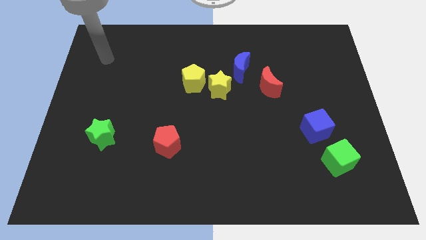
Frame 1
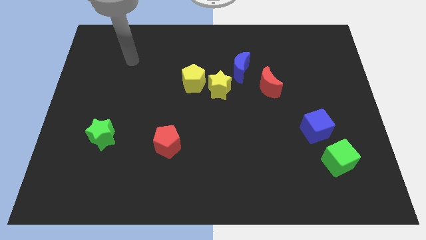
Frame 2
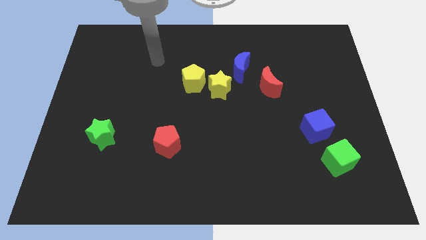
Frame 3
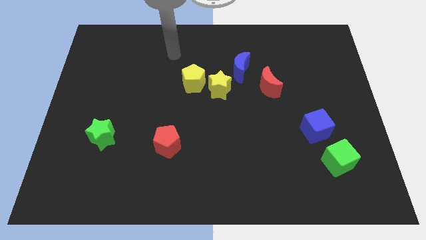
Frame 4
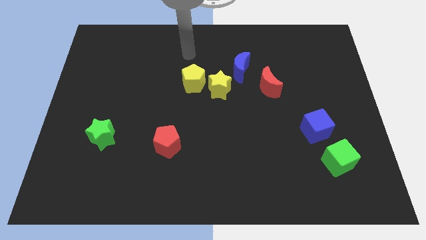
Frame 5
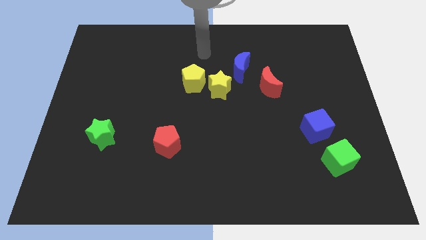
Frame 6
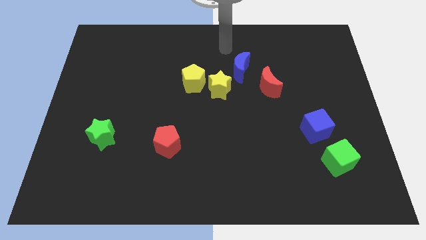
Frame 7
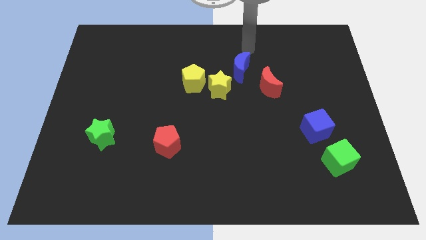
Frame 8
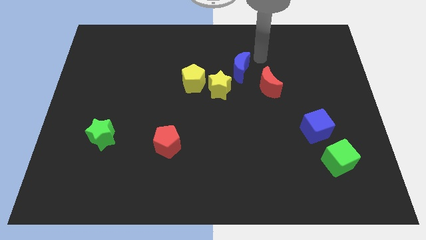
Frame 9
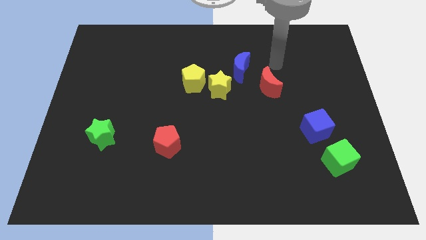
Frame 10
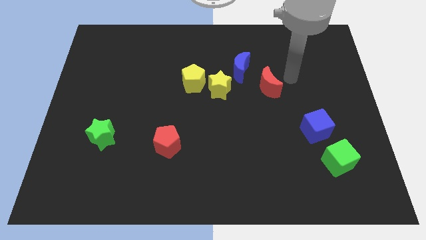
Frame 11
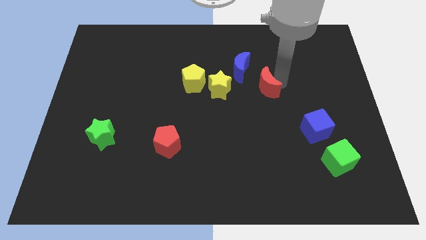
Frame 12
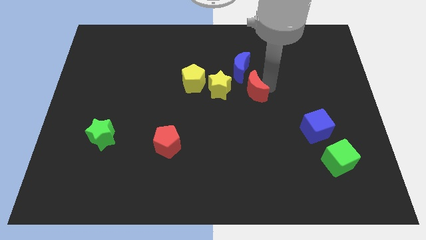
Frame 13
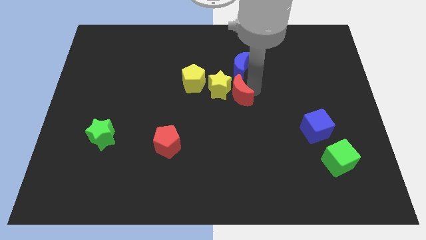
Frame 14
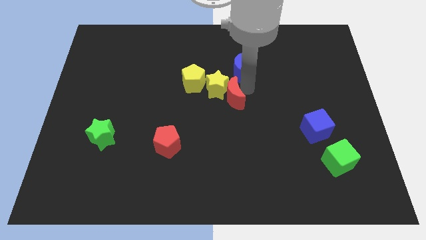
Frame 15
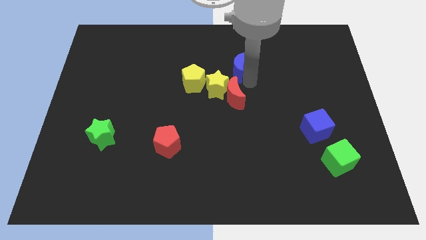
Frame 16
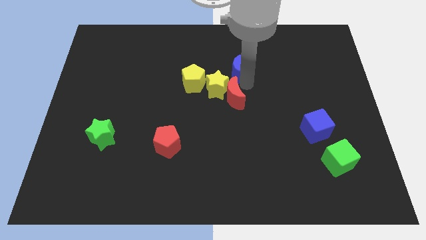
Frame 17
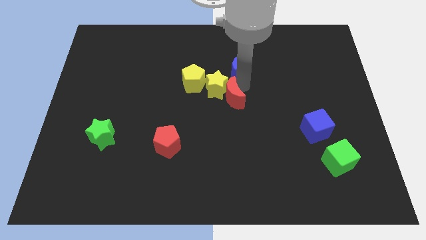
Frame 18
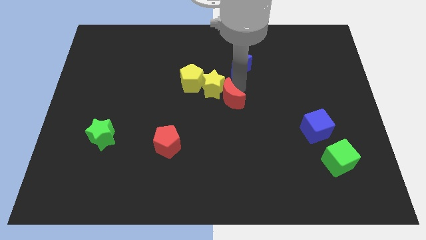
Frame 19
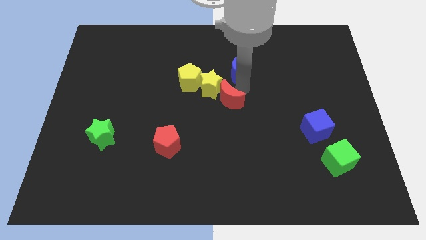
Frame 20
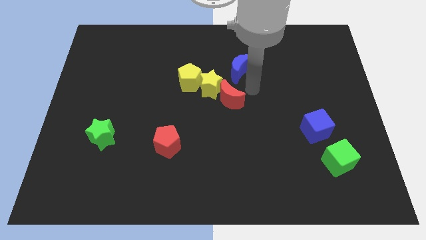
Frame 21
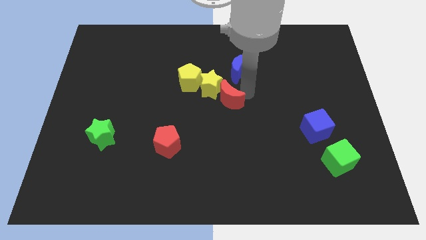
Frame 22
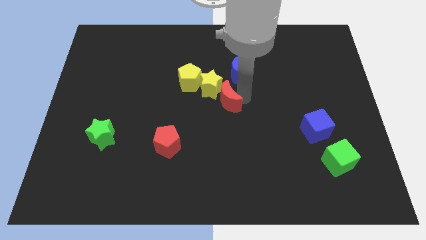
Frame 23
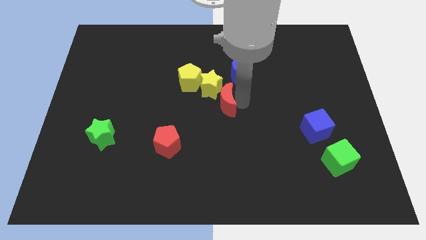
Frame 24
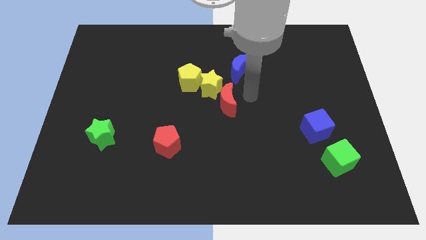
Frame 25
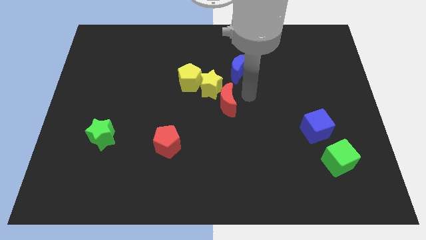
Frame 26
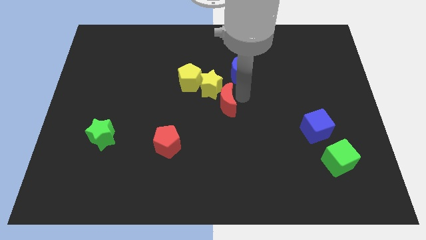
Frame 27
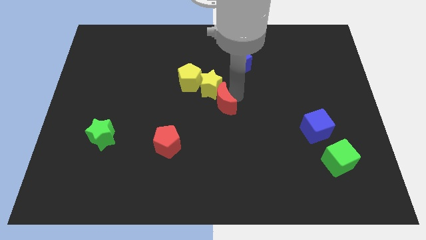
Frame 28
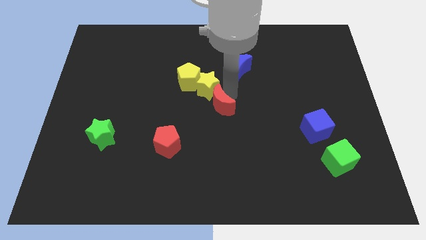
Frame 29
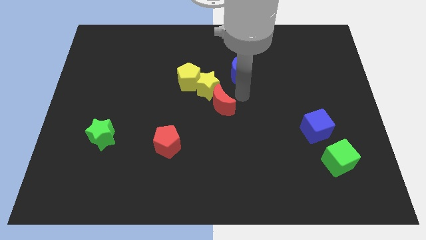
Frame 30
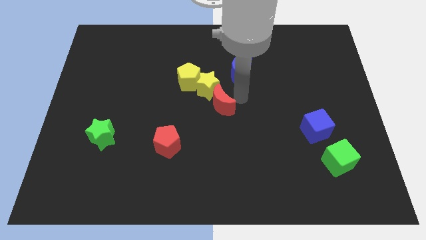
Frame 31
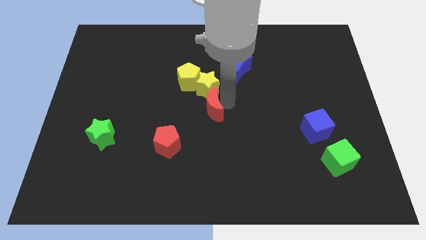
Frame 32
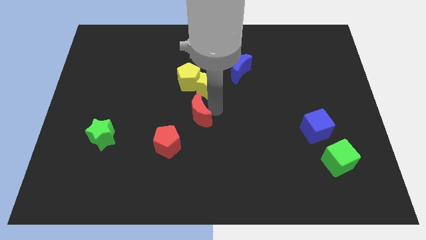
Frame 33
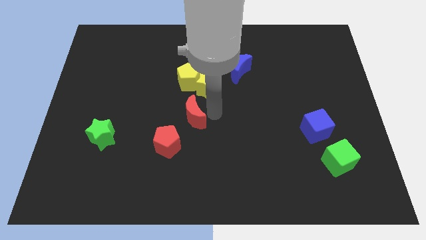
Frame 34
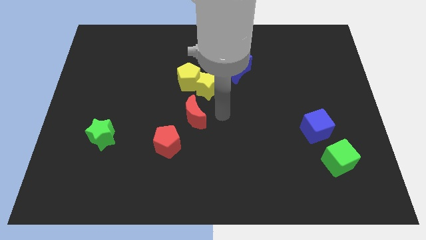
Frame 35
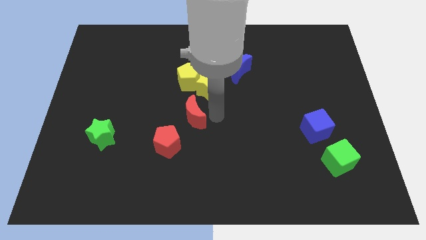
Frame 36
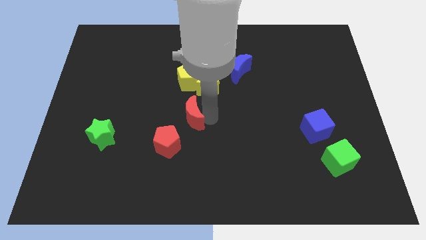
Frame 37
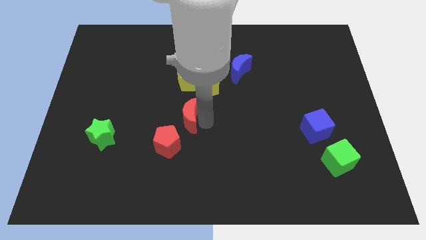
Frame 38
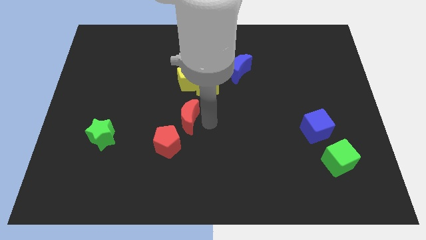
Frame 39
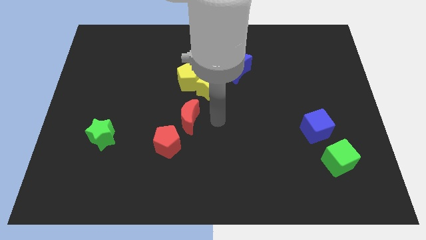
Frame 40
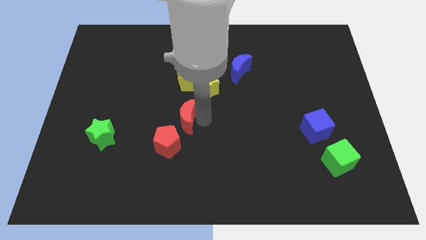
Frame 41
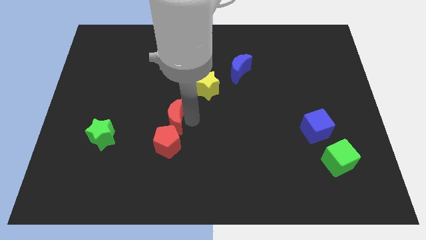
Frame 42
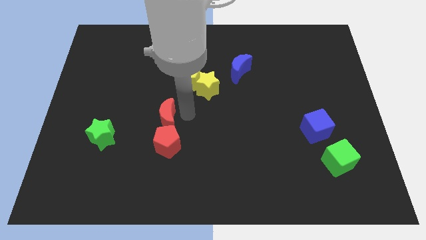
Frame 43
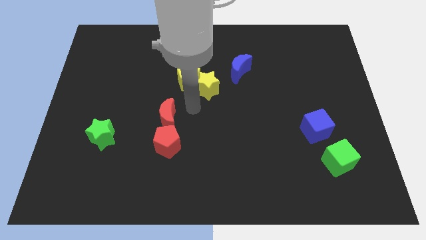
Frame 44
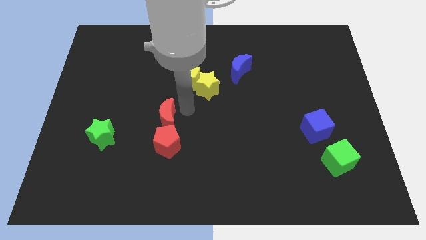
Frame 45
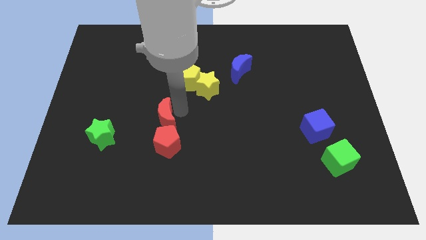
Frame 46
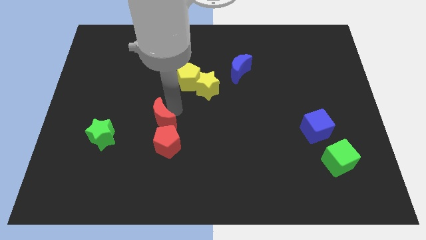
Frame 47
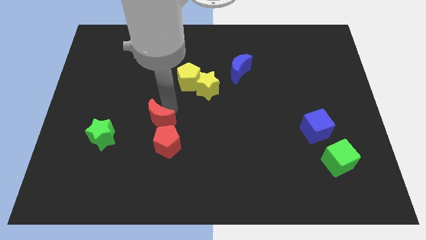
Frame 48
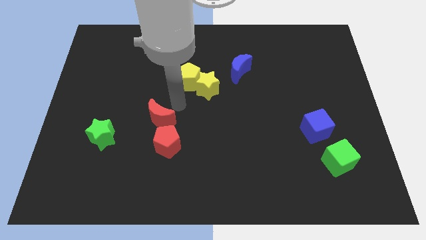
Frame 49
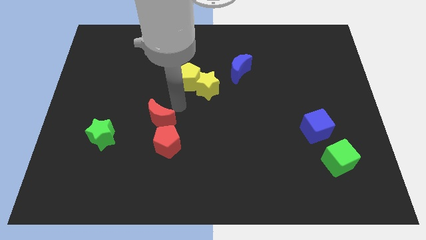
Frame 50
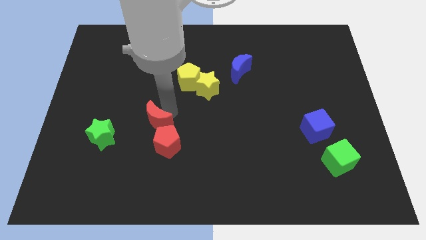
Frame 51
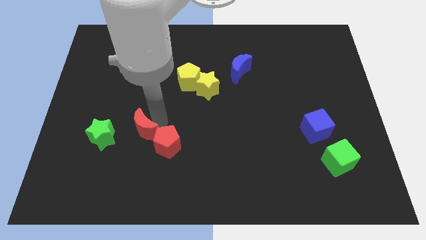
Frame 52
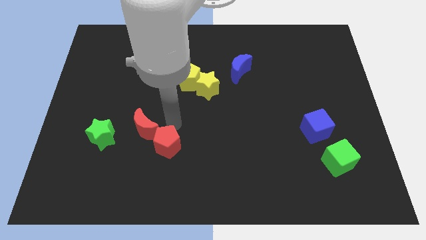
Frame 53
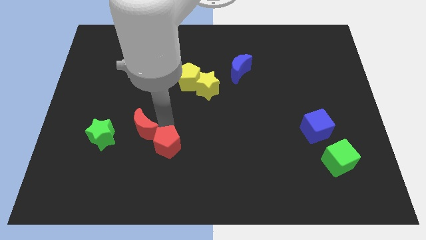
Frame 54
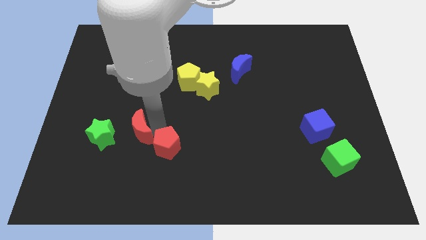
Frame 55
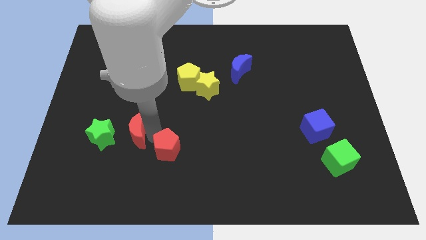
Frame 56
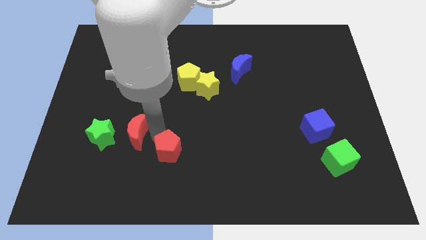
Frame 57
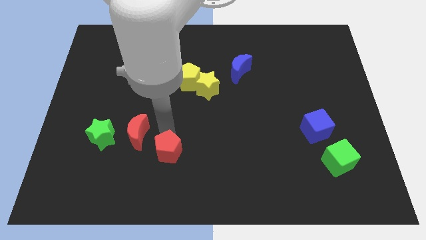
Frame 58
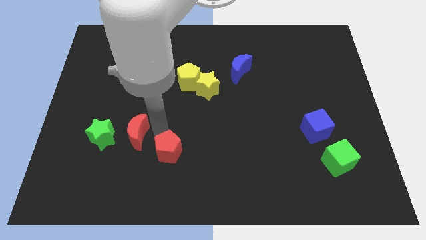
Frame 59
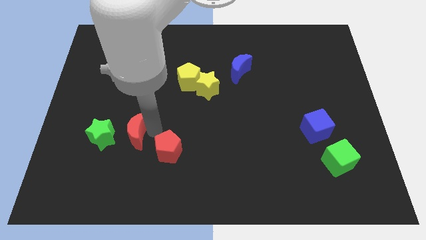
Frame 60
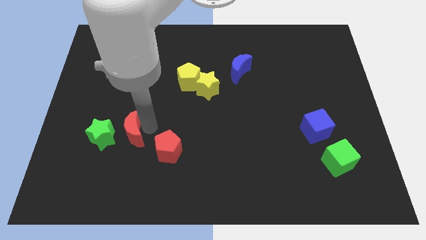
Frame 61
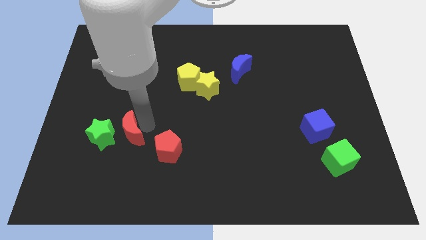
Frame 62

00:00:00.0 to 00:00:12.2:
slide the red moon to the green star

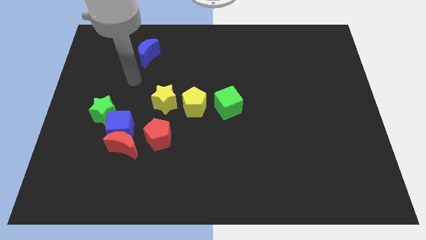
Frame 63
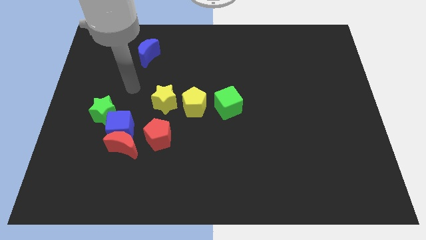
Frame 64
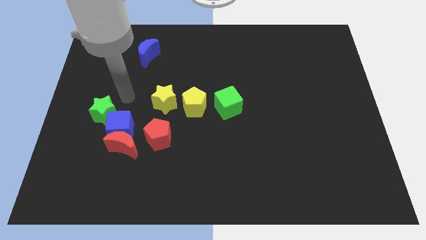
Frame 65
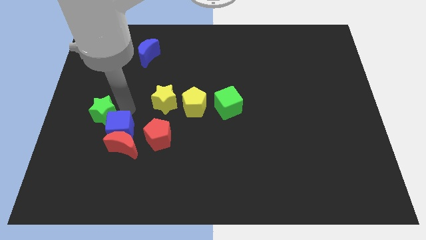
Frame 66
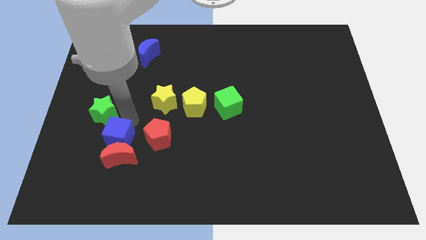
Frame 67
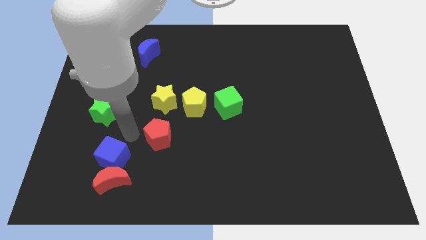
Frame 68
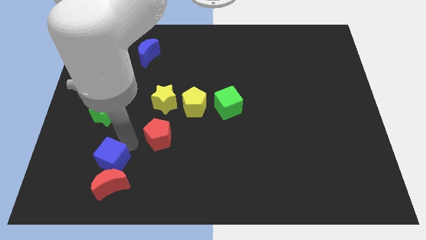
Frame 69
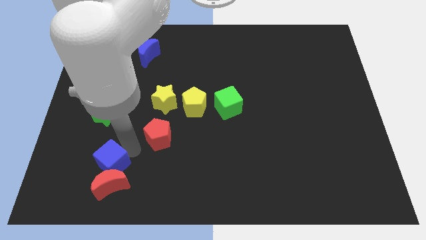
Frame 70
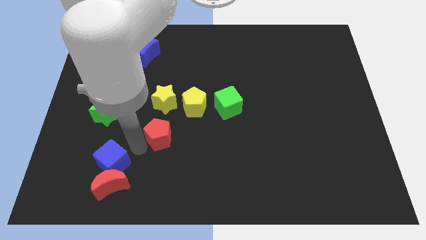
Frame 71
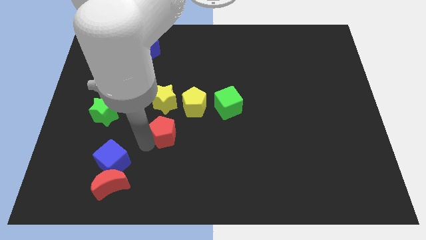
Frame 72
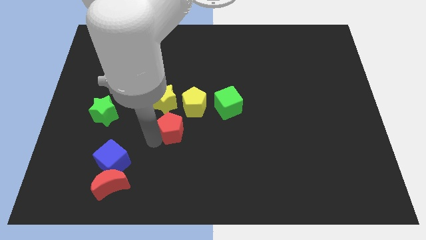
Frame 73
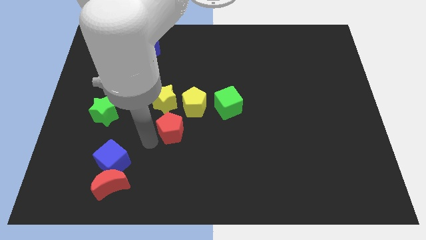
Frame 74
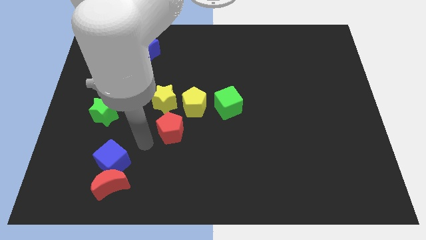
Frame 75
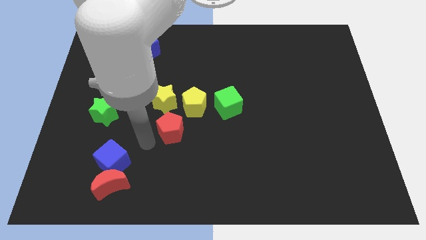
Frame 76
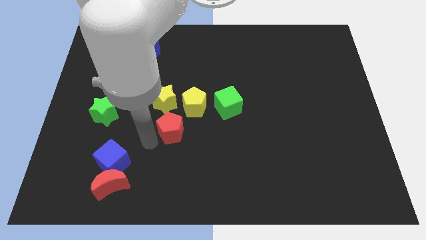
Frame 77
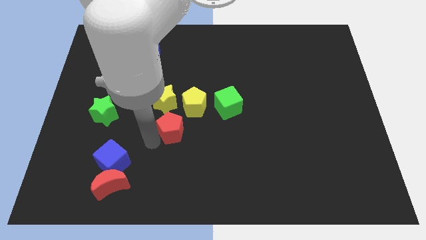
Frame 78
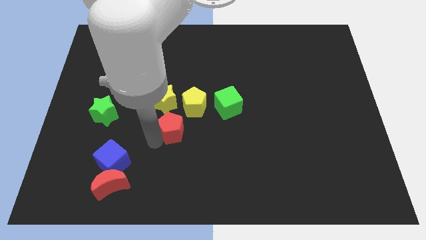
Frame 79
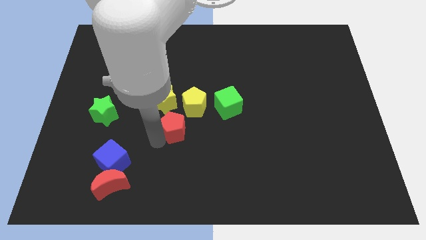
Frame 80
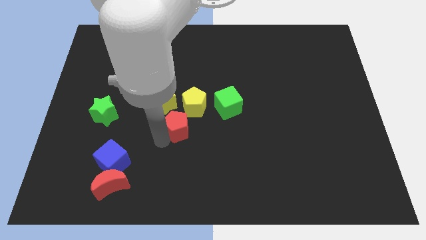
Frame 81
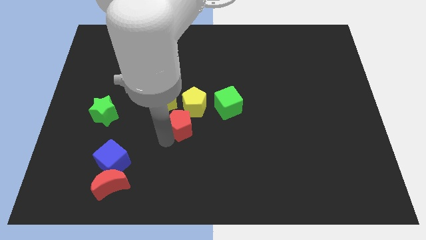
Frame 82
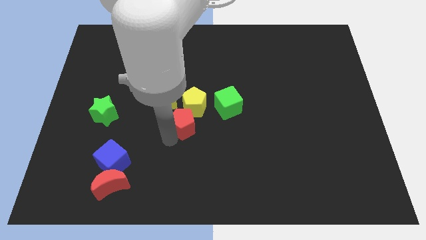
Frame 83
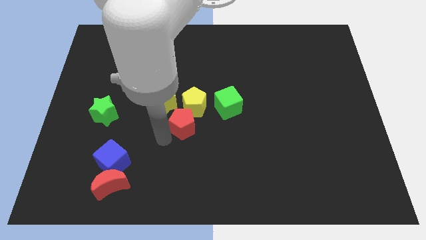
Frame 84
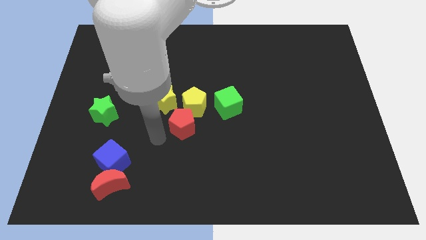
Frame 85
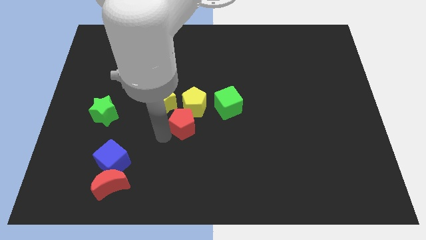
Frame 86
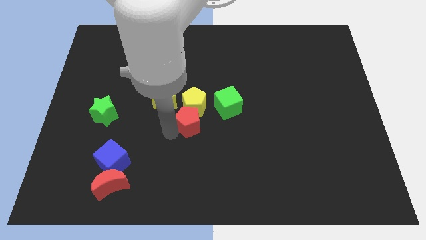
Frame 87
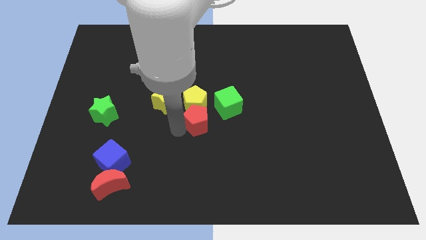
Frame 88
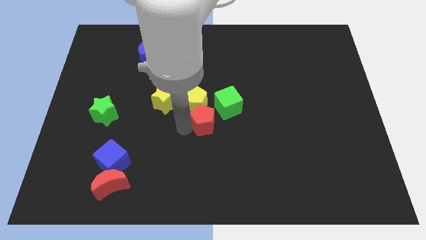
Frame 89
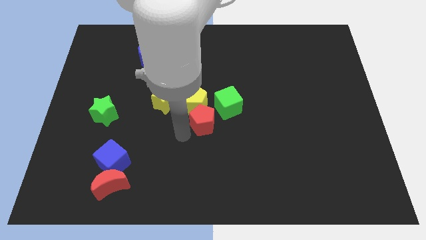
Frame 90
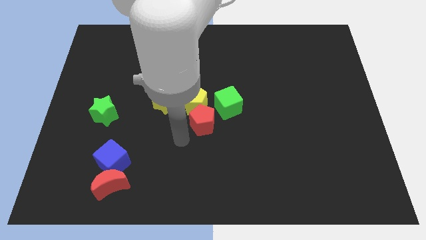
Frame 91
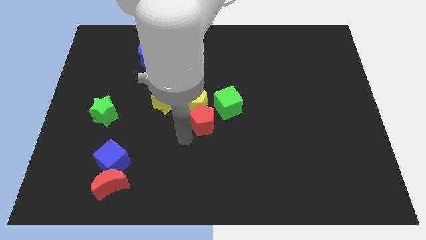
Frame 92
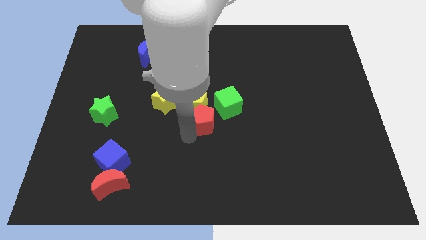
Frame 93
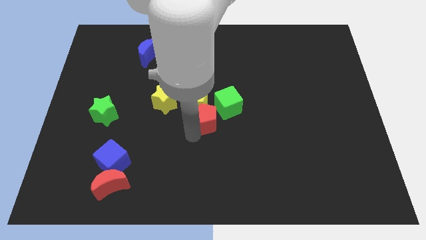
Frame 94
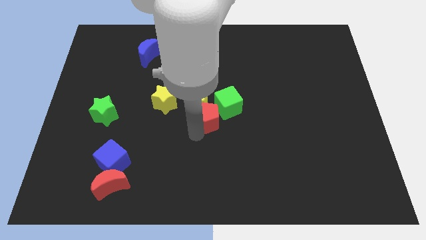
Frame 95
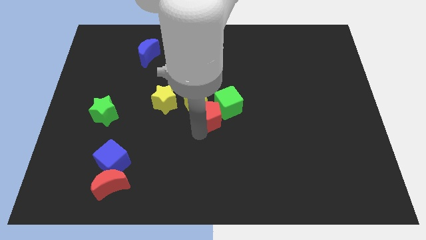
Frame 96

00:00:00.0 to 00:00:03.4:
slide the red pentagon close to the green cube
